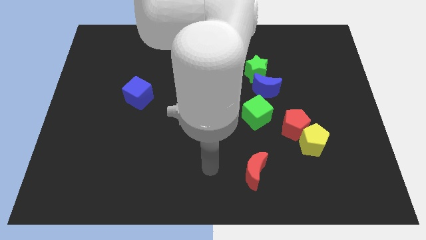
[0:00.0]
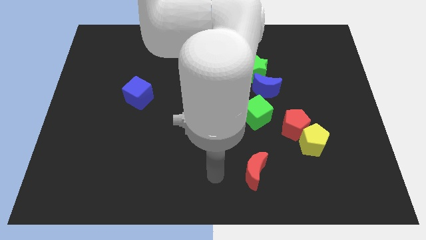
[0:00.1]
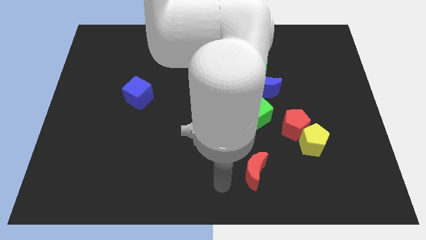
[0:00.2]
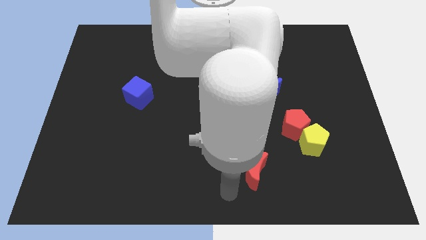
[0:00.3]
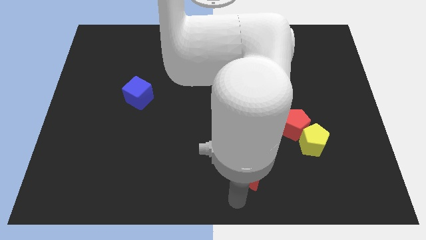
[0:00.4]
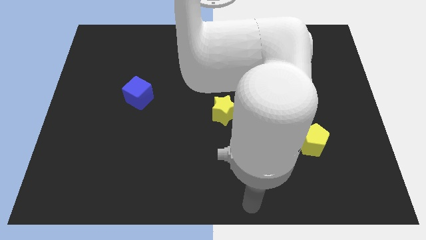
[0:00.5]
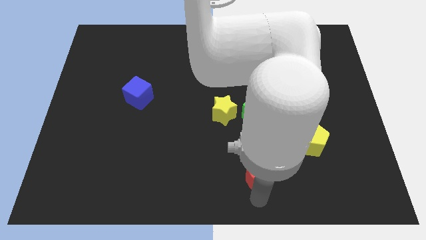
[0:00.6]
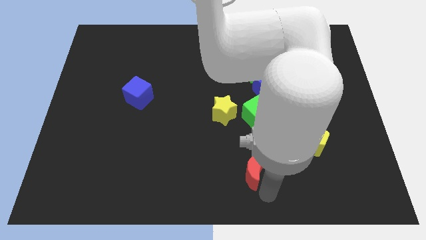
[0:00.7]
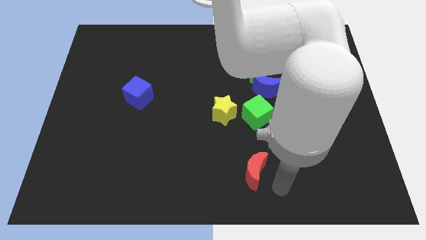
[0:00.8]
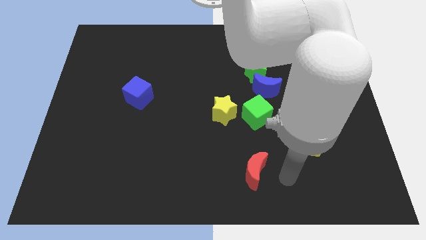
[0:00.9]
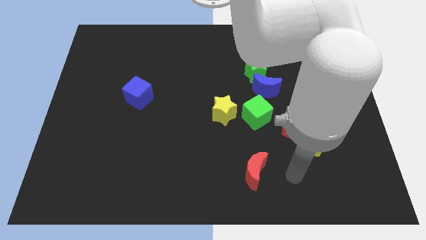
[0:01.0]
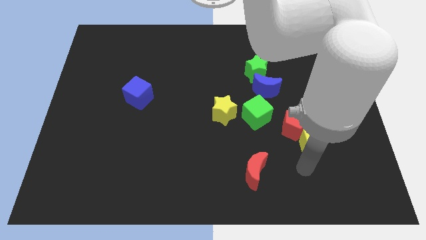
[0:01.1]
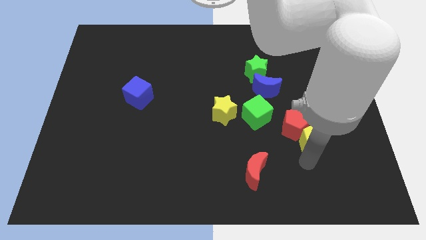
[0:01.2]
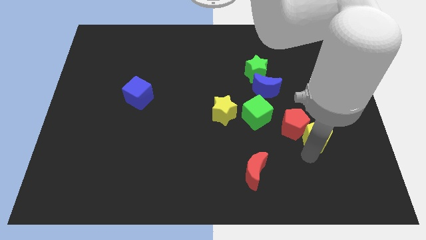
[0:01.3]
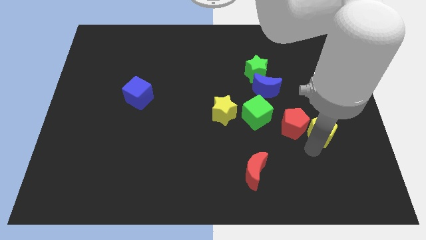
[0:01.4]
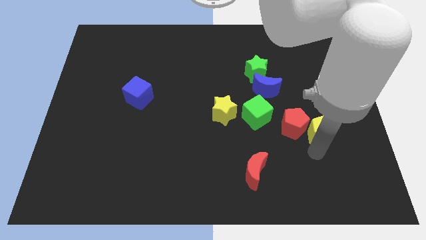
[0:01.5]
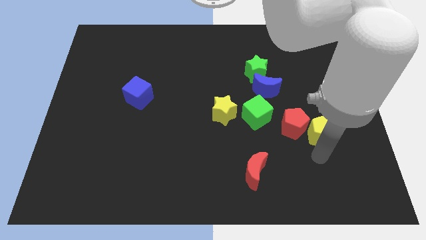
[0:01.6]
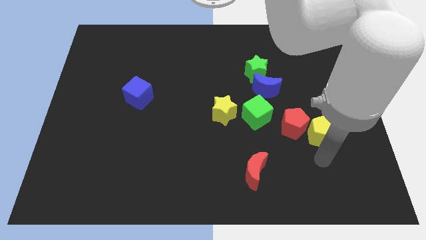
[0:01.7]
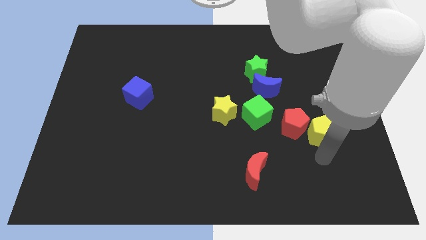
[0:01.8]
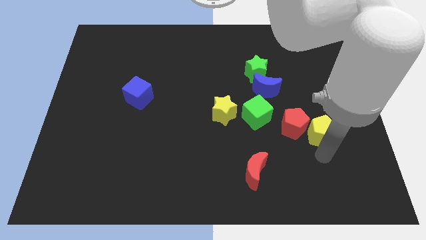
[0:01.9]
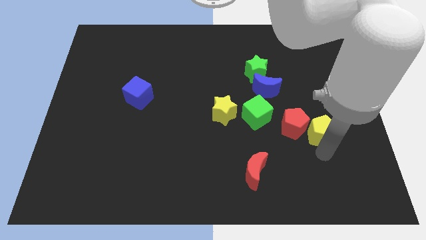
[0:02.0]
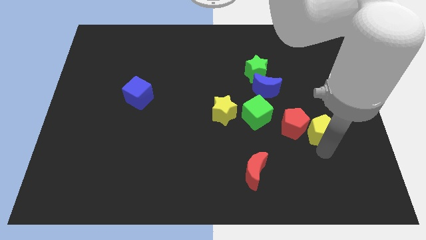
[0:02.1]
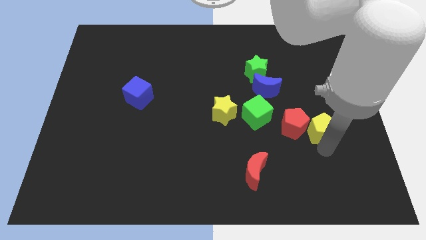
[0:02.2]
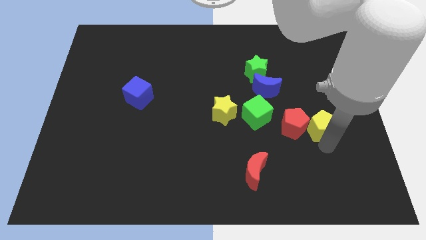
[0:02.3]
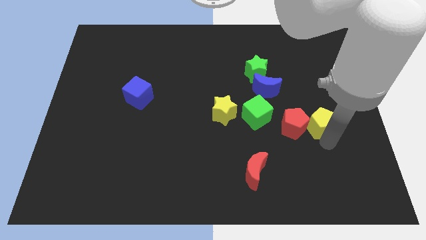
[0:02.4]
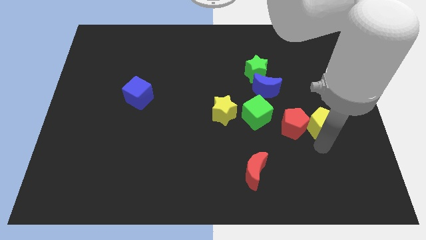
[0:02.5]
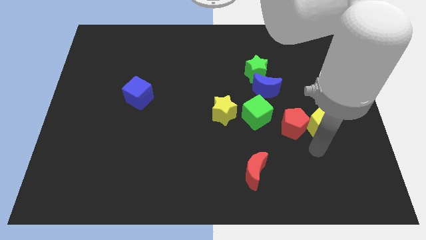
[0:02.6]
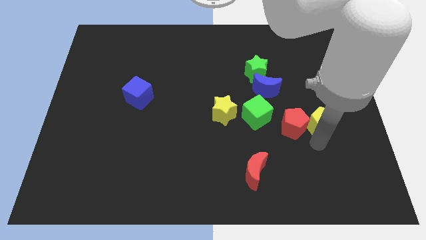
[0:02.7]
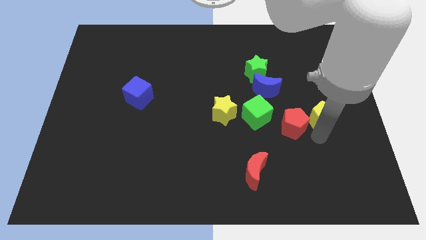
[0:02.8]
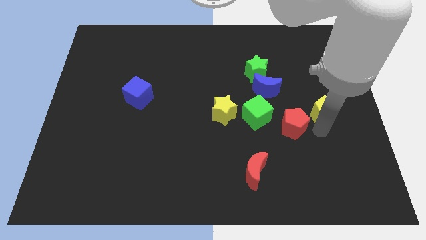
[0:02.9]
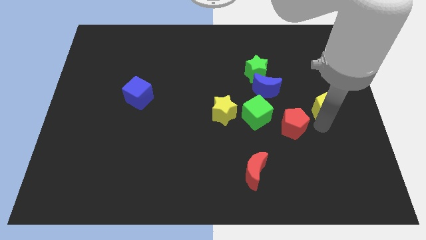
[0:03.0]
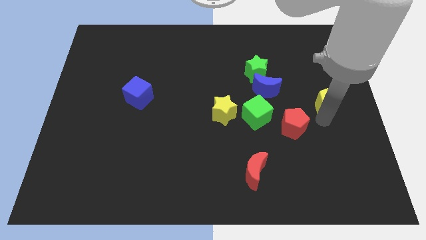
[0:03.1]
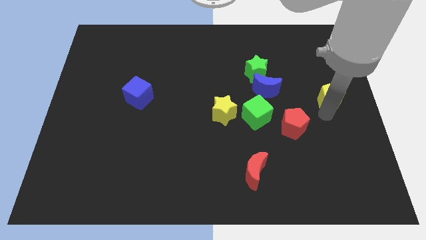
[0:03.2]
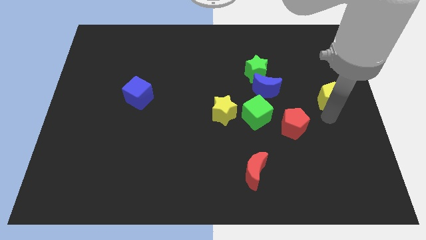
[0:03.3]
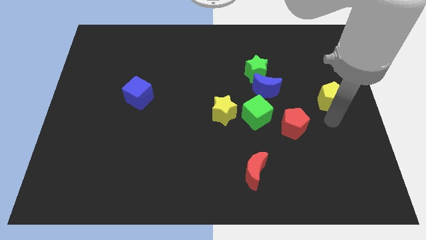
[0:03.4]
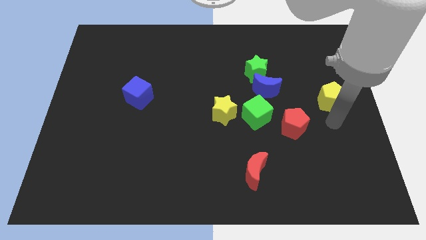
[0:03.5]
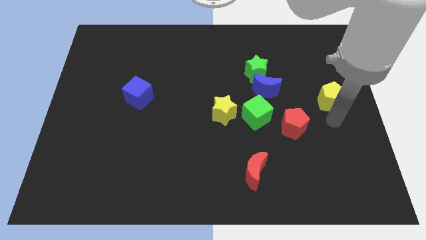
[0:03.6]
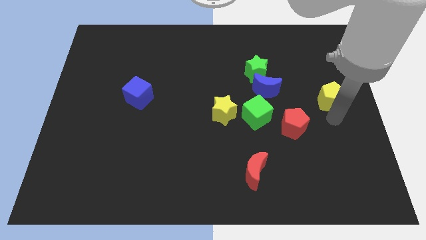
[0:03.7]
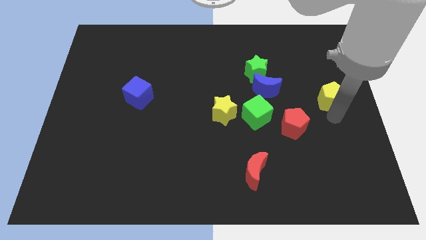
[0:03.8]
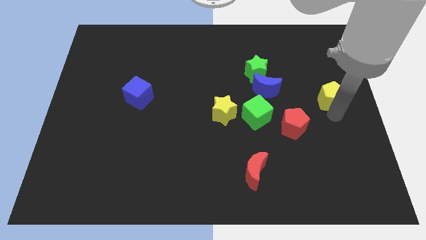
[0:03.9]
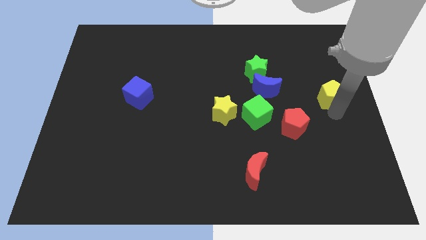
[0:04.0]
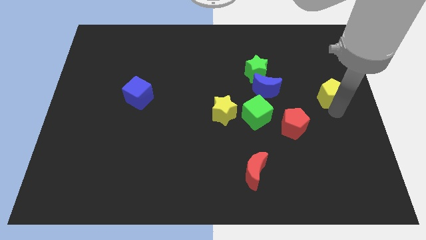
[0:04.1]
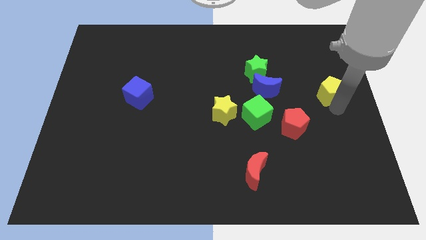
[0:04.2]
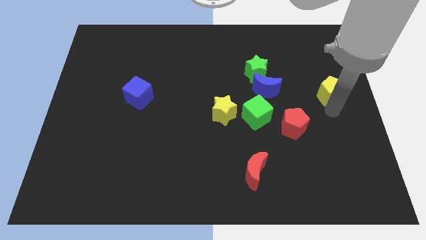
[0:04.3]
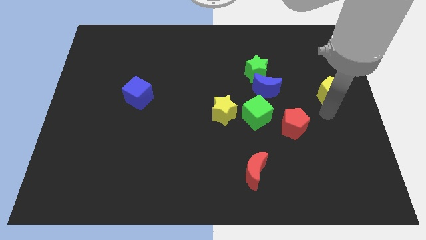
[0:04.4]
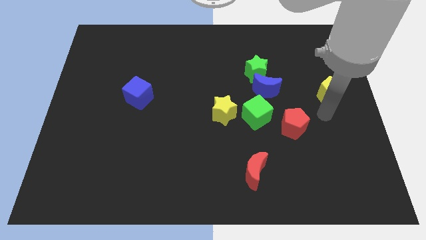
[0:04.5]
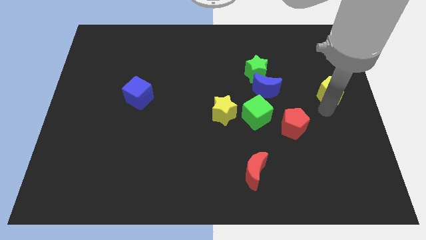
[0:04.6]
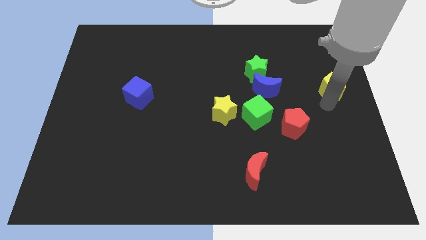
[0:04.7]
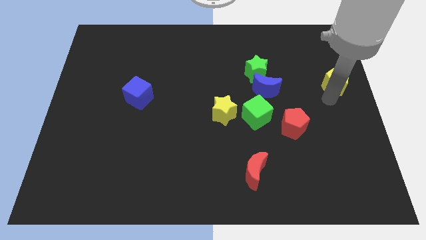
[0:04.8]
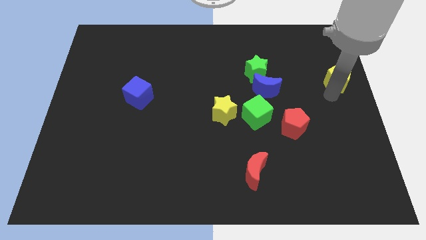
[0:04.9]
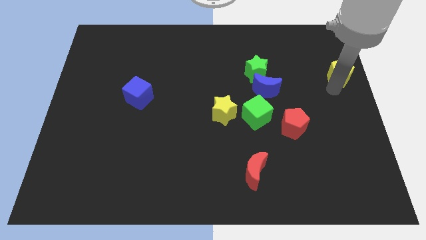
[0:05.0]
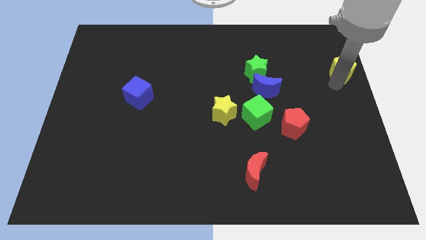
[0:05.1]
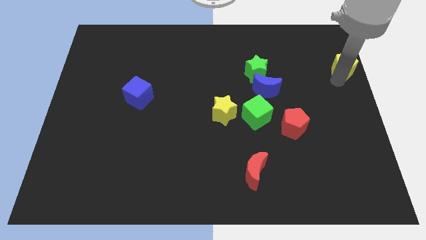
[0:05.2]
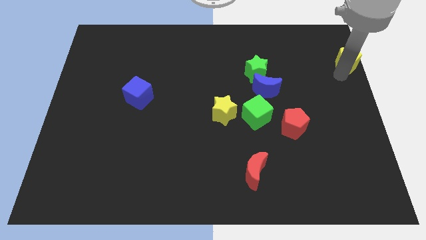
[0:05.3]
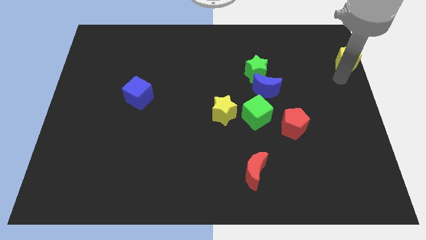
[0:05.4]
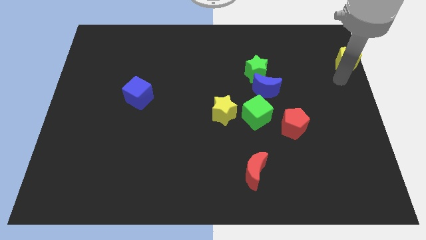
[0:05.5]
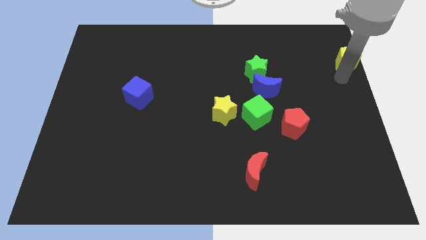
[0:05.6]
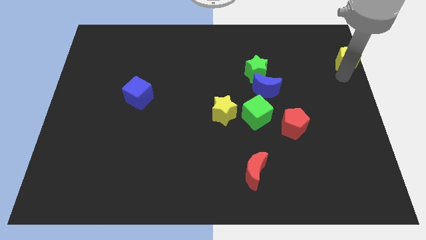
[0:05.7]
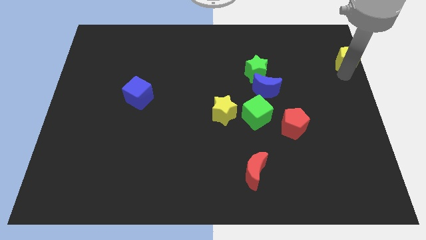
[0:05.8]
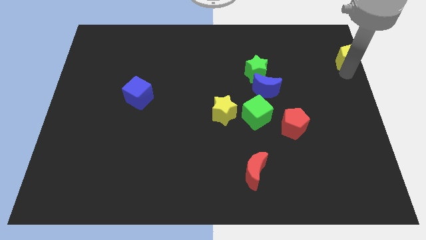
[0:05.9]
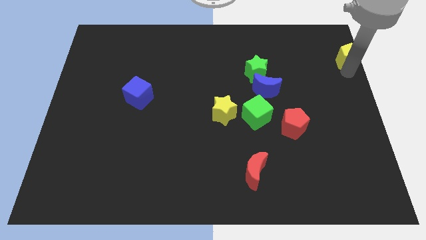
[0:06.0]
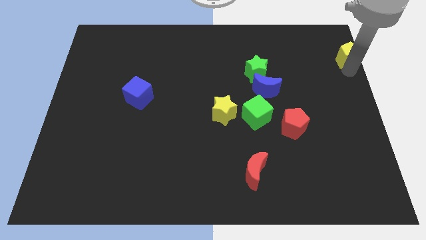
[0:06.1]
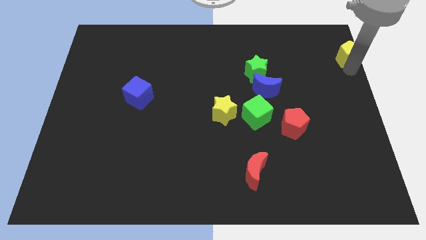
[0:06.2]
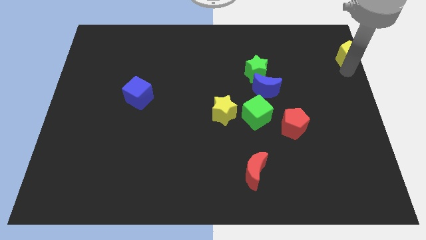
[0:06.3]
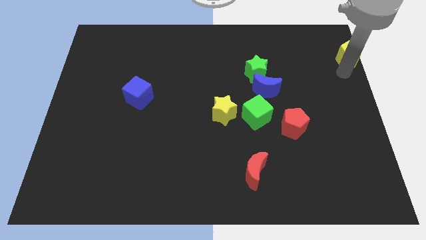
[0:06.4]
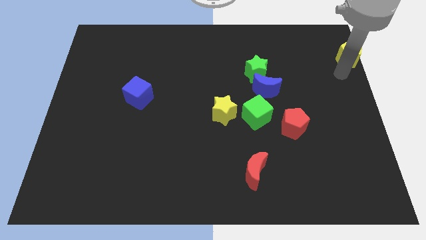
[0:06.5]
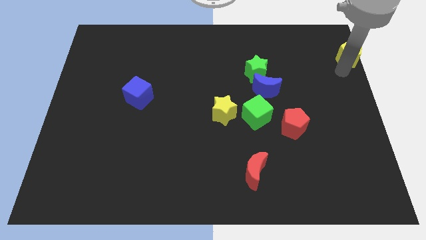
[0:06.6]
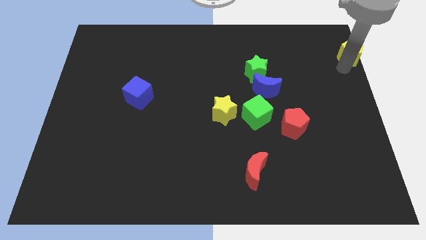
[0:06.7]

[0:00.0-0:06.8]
slide the yellow pentagon to the top right of the board
